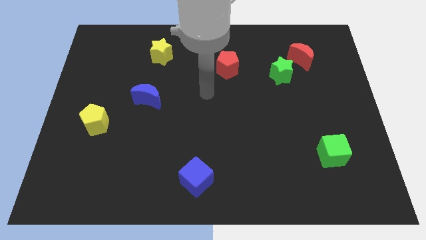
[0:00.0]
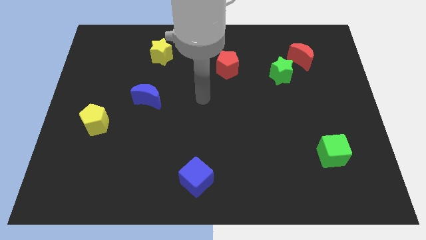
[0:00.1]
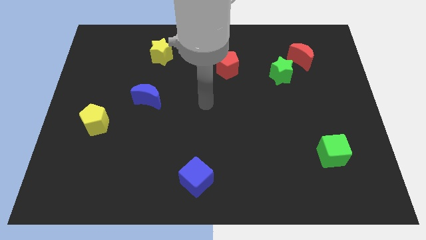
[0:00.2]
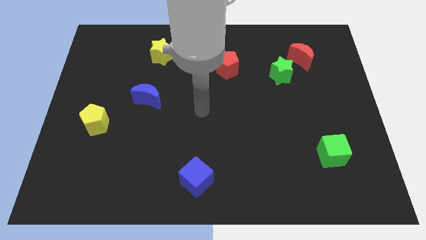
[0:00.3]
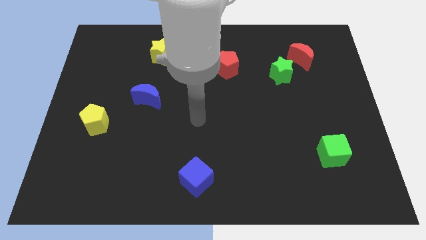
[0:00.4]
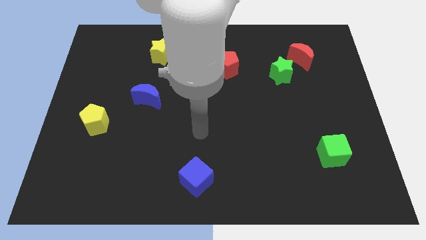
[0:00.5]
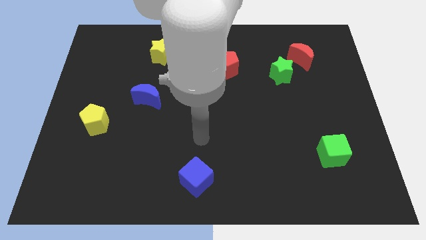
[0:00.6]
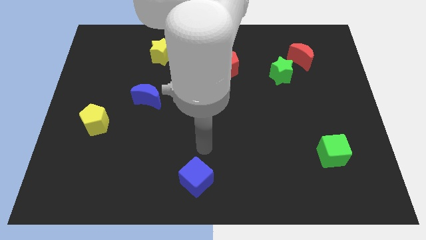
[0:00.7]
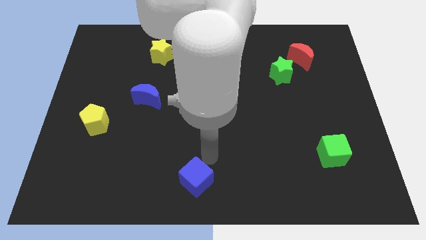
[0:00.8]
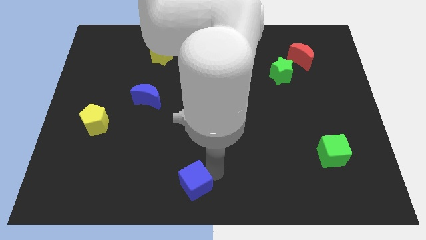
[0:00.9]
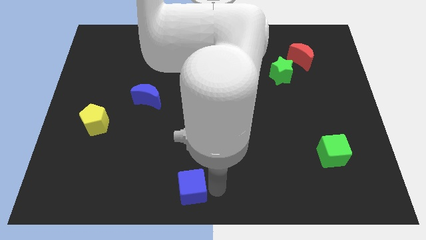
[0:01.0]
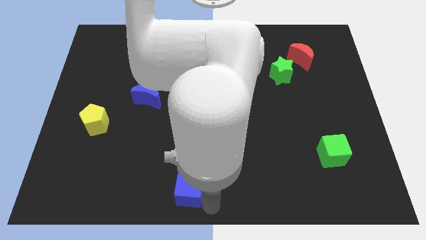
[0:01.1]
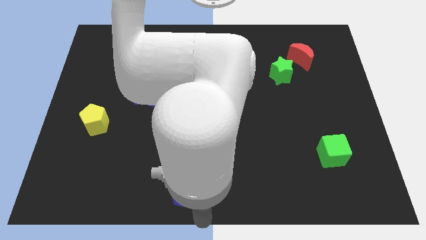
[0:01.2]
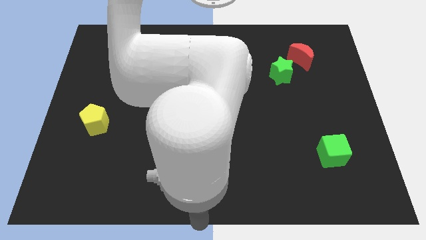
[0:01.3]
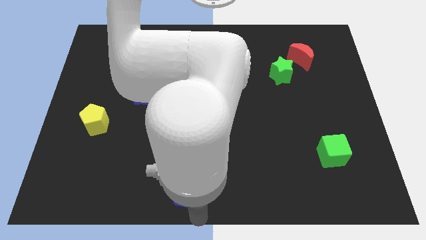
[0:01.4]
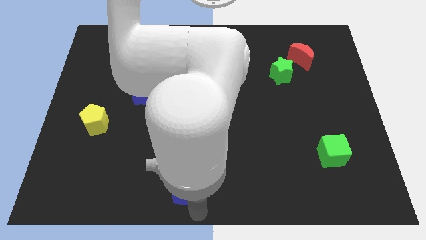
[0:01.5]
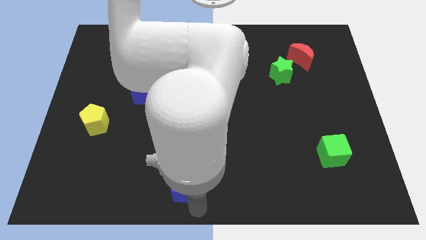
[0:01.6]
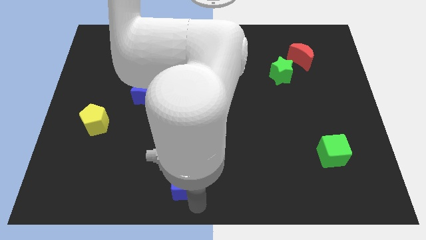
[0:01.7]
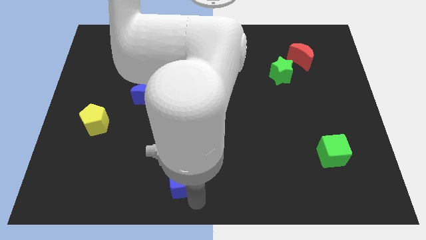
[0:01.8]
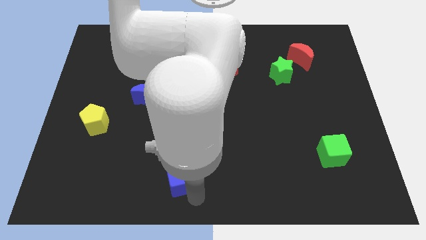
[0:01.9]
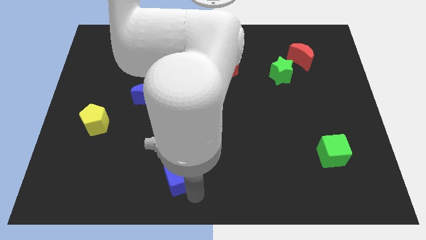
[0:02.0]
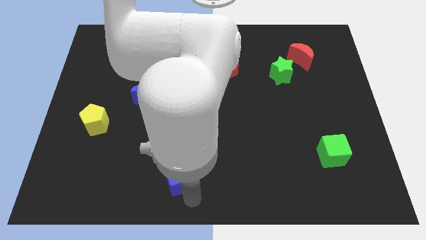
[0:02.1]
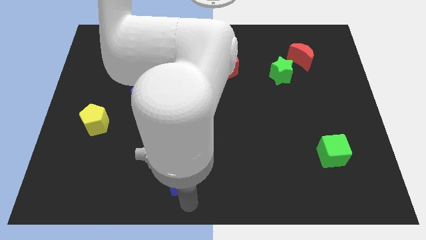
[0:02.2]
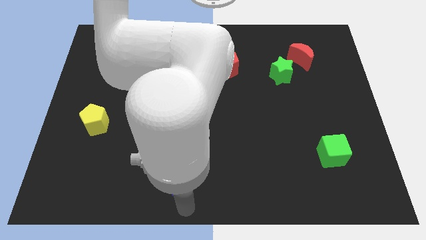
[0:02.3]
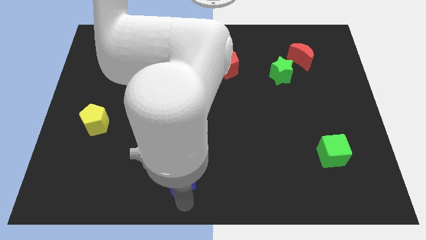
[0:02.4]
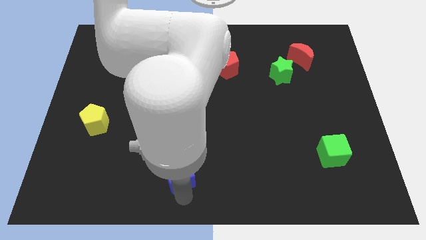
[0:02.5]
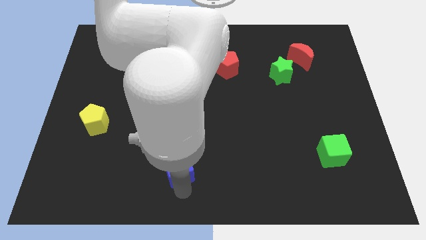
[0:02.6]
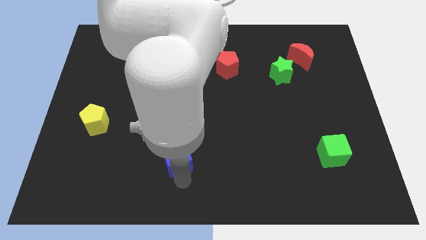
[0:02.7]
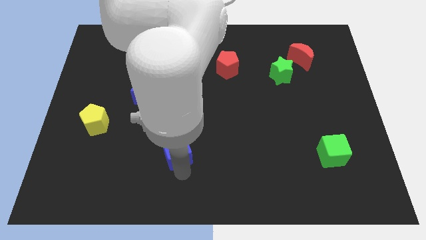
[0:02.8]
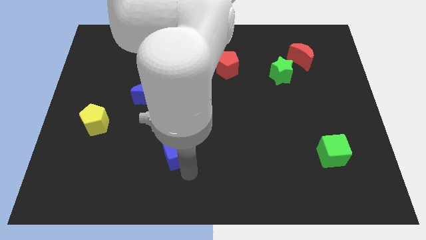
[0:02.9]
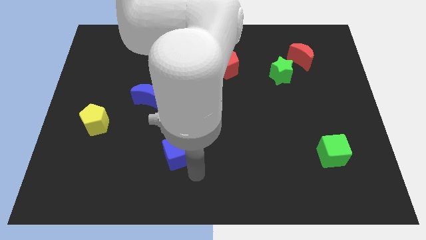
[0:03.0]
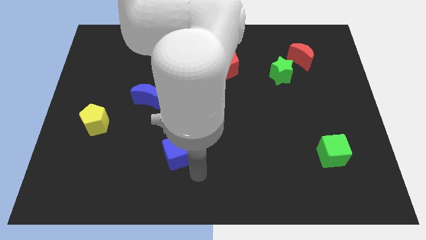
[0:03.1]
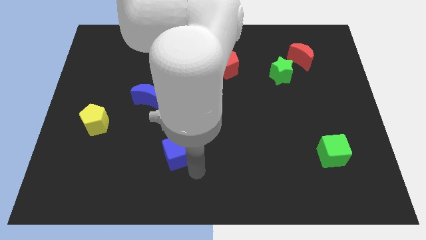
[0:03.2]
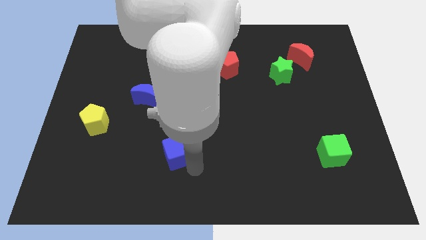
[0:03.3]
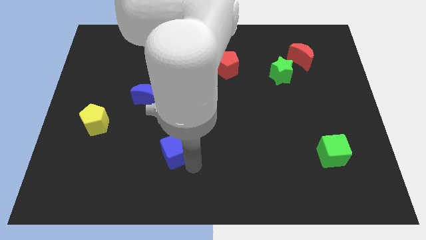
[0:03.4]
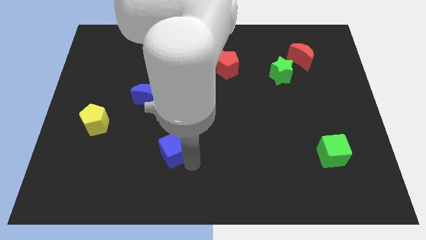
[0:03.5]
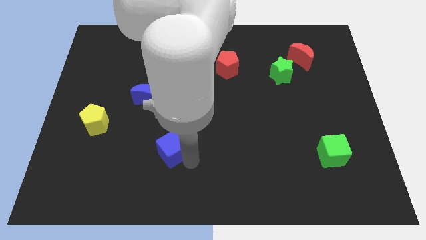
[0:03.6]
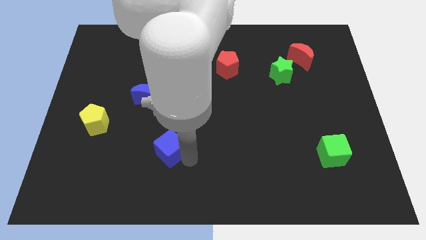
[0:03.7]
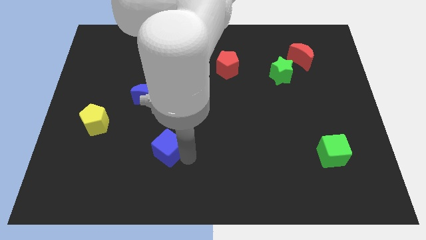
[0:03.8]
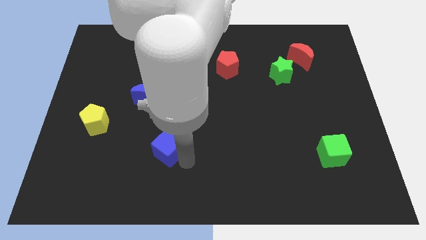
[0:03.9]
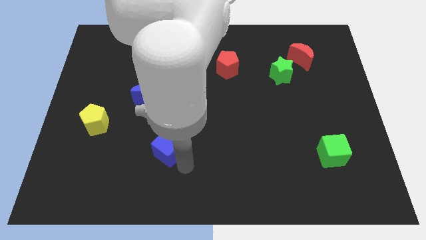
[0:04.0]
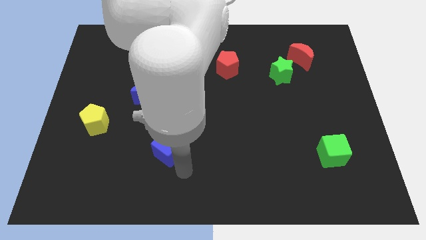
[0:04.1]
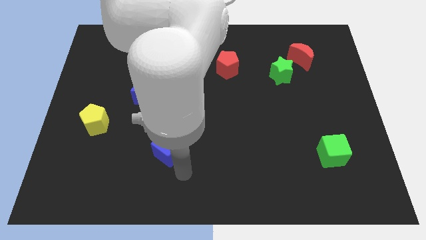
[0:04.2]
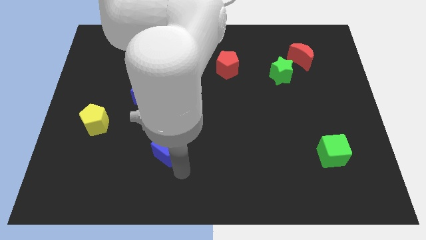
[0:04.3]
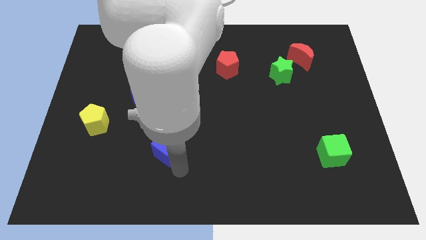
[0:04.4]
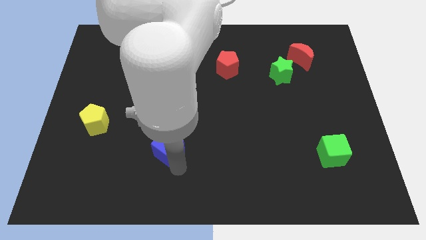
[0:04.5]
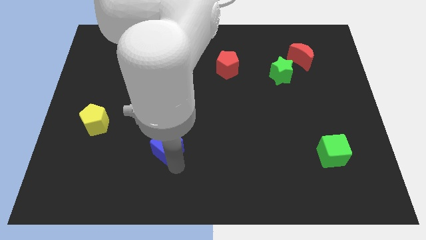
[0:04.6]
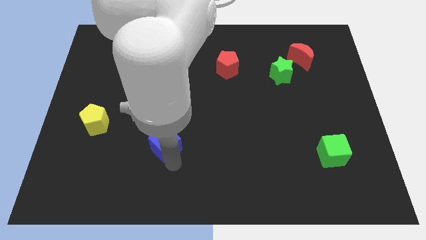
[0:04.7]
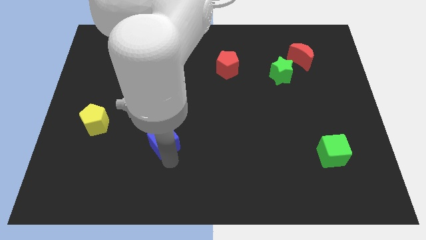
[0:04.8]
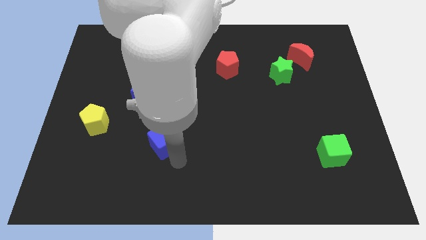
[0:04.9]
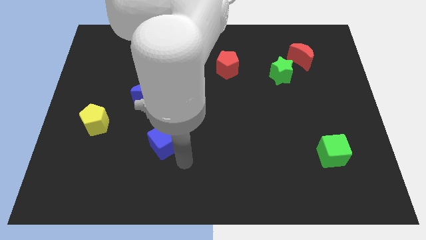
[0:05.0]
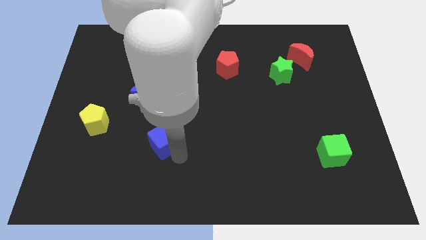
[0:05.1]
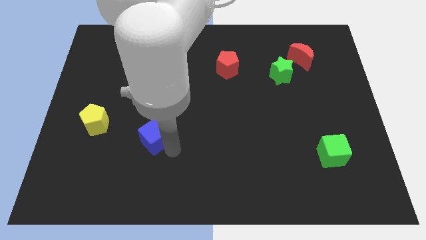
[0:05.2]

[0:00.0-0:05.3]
move the blue cube to the right of the yellow pentagon

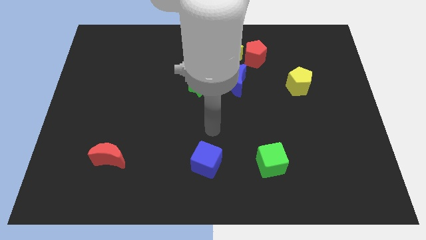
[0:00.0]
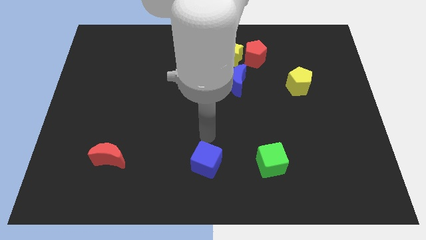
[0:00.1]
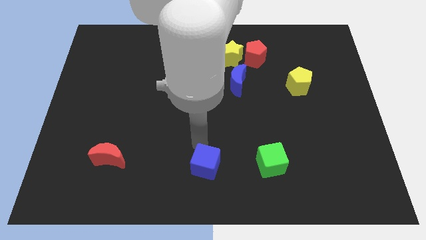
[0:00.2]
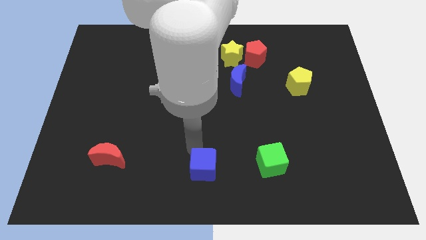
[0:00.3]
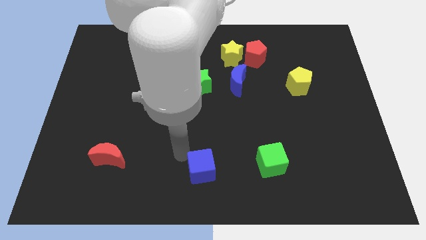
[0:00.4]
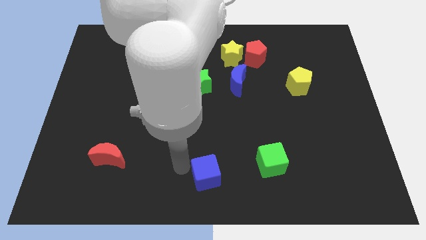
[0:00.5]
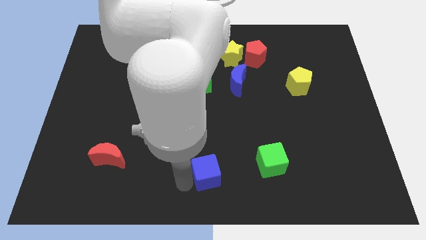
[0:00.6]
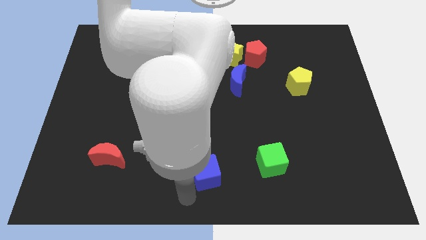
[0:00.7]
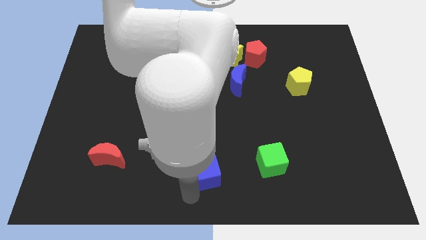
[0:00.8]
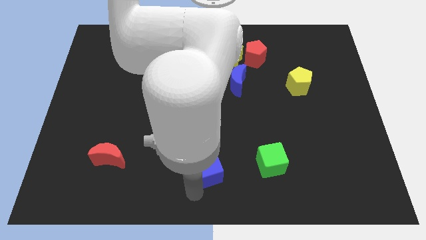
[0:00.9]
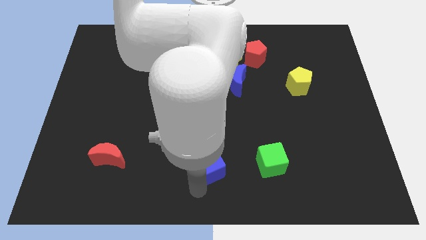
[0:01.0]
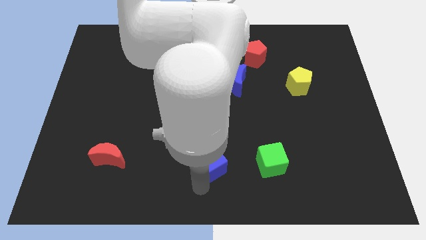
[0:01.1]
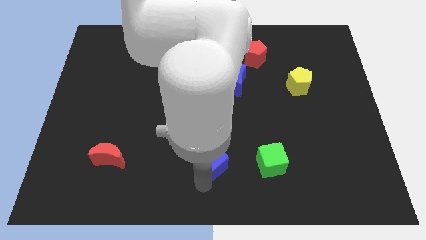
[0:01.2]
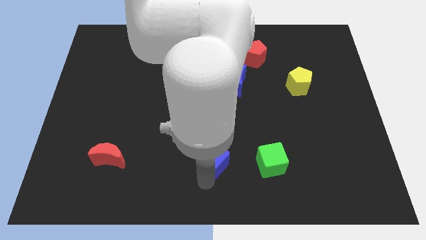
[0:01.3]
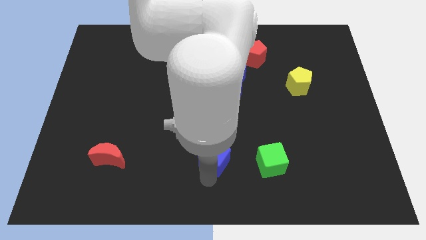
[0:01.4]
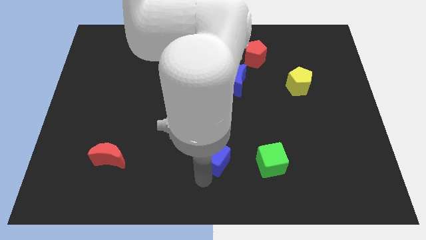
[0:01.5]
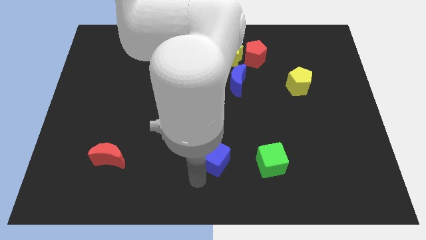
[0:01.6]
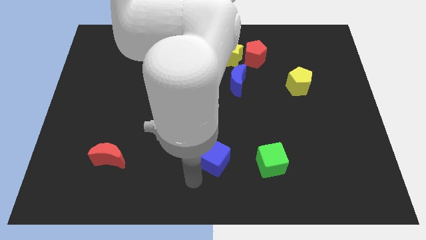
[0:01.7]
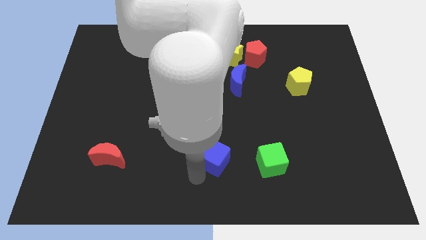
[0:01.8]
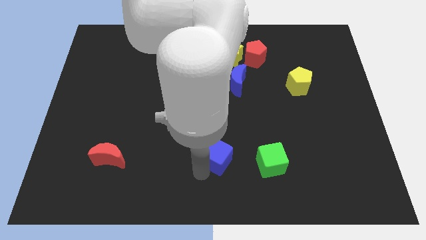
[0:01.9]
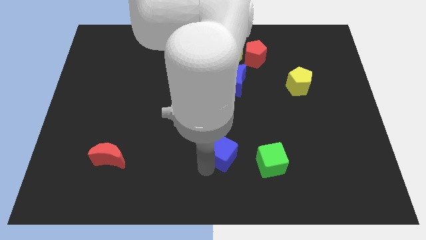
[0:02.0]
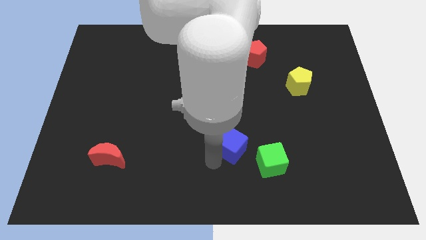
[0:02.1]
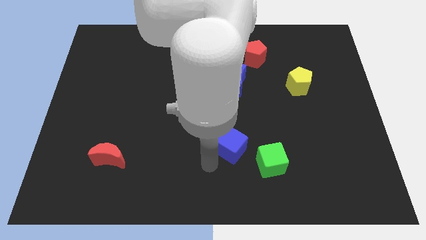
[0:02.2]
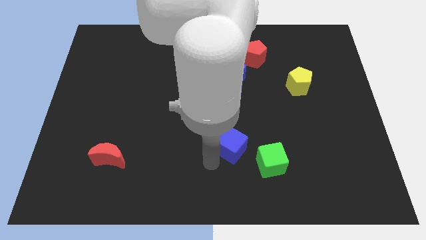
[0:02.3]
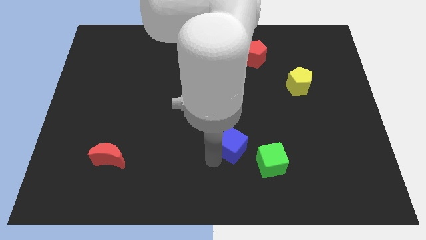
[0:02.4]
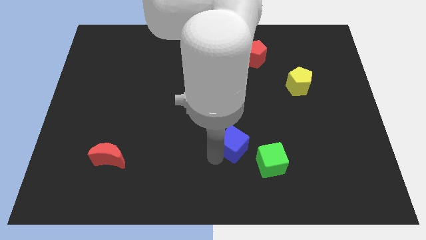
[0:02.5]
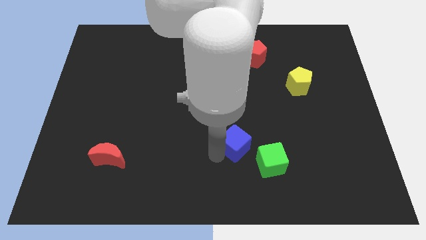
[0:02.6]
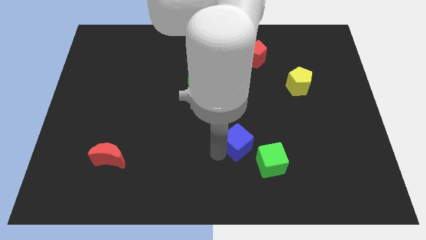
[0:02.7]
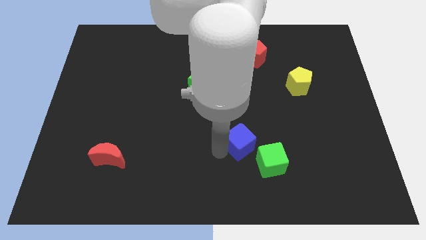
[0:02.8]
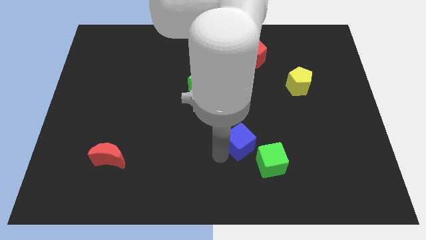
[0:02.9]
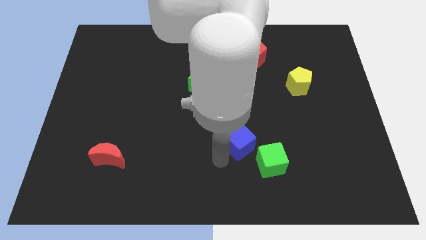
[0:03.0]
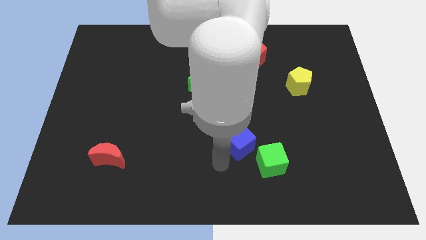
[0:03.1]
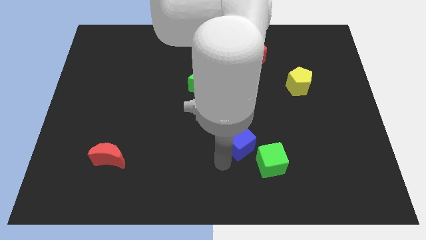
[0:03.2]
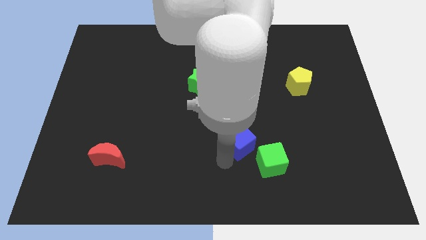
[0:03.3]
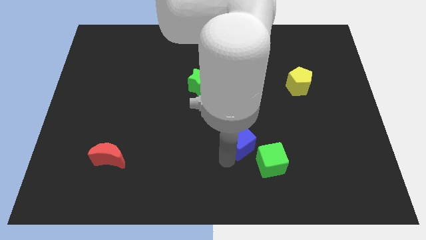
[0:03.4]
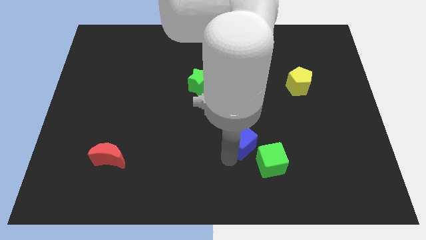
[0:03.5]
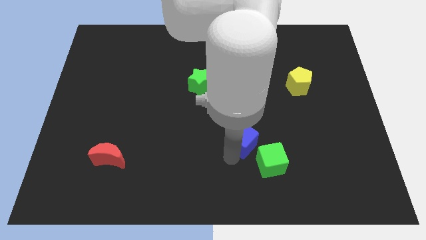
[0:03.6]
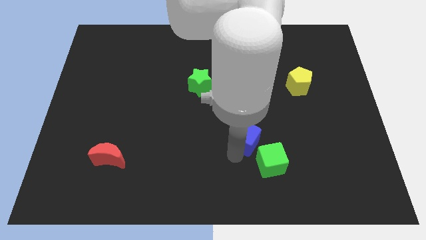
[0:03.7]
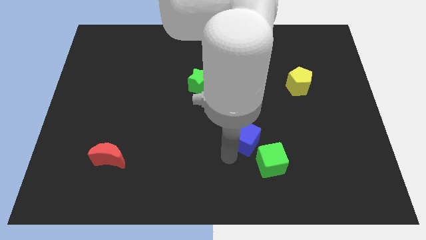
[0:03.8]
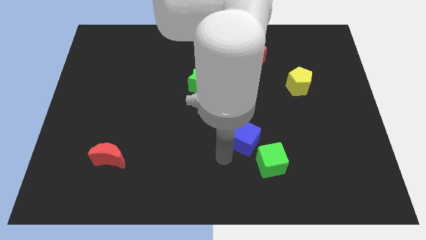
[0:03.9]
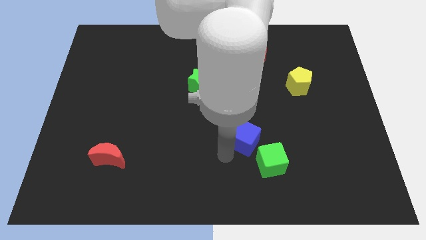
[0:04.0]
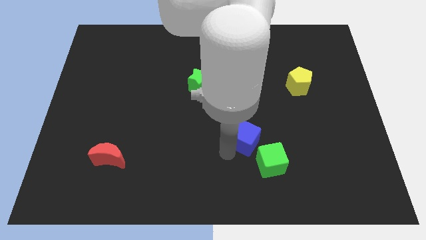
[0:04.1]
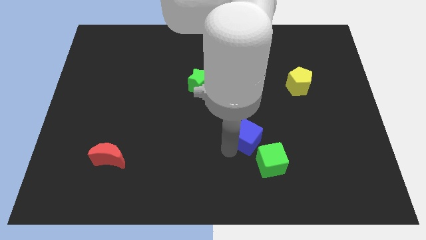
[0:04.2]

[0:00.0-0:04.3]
push the blue cube to the top side of the green cube
